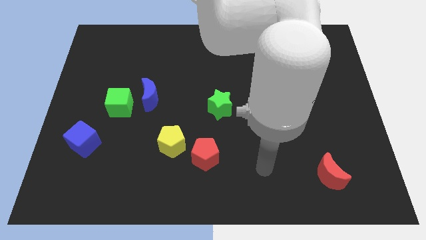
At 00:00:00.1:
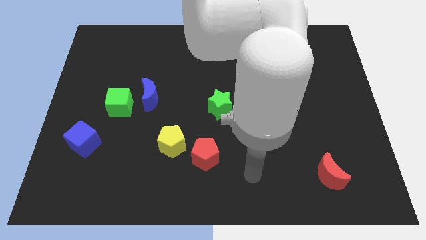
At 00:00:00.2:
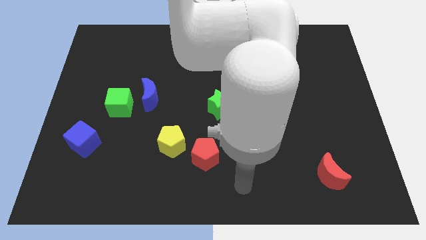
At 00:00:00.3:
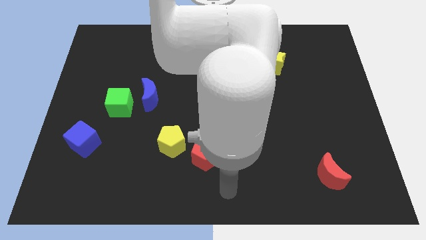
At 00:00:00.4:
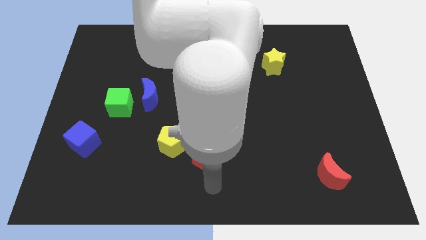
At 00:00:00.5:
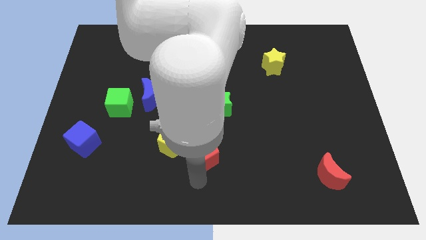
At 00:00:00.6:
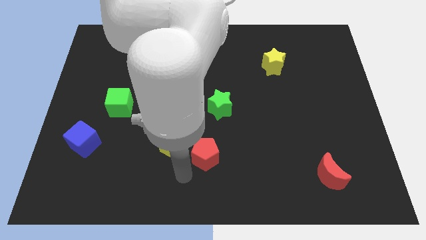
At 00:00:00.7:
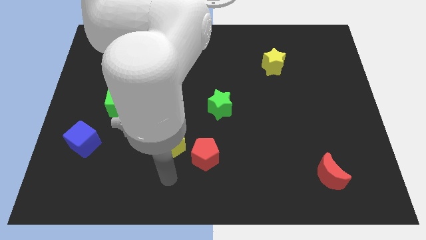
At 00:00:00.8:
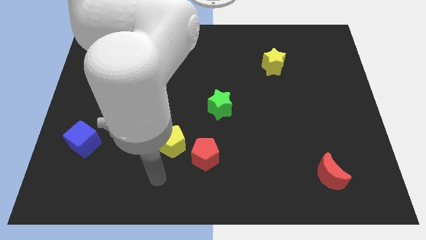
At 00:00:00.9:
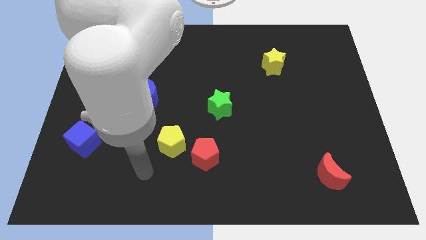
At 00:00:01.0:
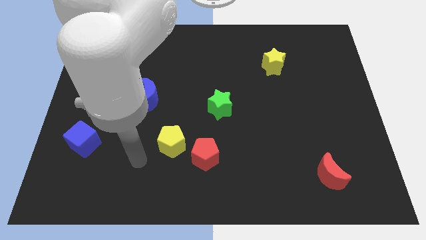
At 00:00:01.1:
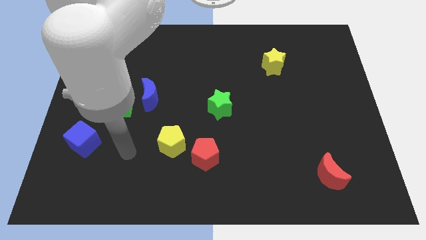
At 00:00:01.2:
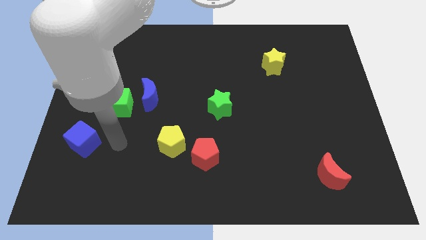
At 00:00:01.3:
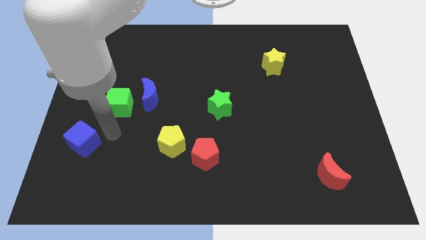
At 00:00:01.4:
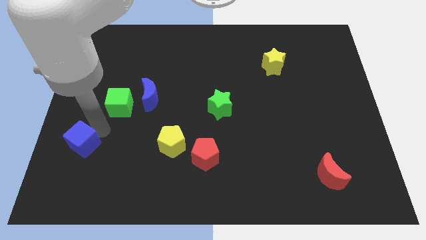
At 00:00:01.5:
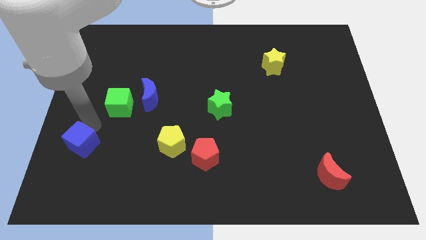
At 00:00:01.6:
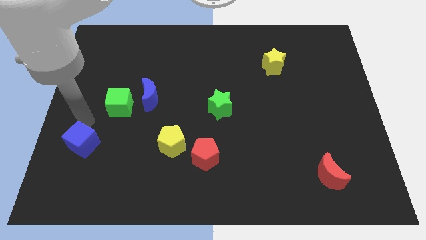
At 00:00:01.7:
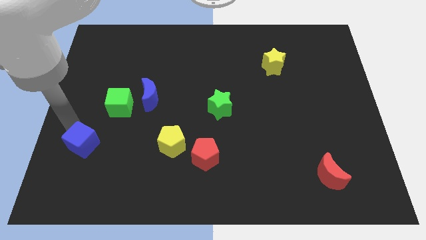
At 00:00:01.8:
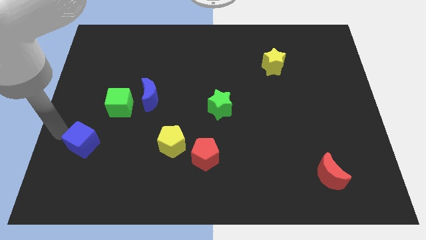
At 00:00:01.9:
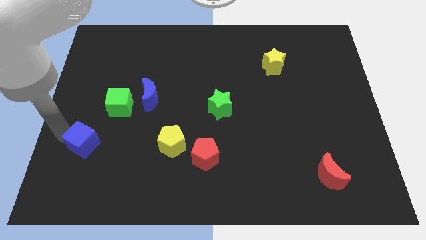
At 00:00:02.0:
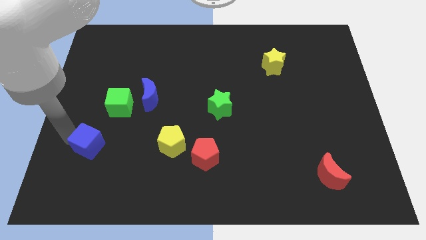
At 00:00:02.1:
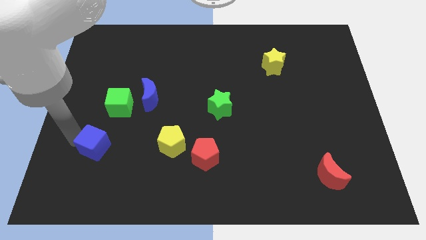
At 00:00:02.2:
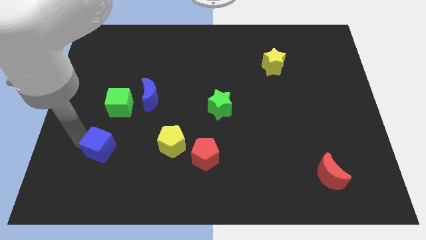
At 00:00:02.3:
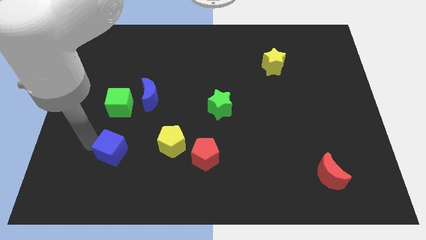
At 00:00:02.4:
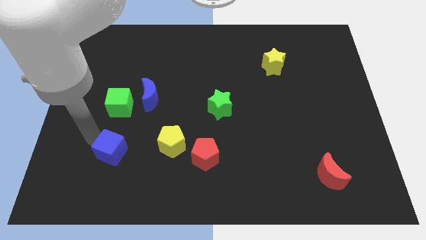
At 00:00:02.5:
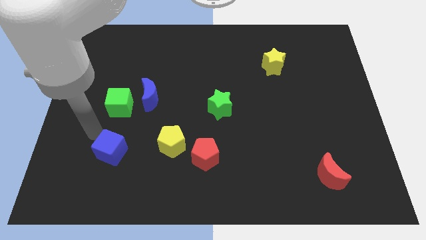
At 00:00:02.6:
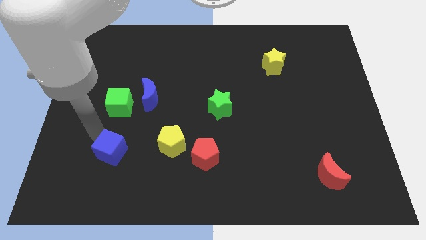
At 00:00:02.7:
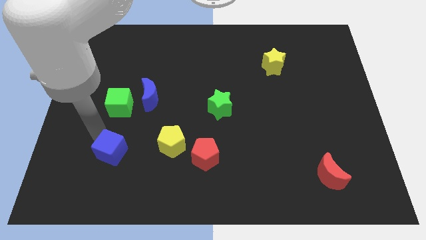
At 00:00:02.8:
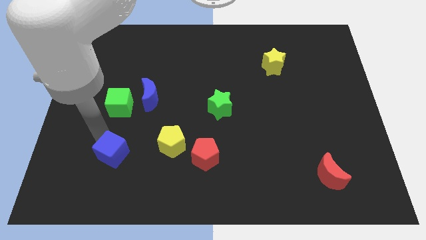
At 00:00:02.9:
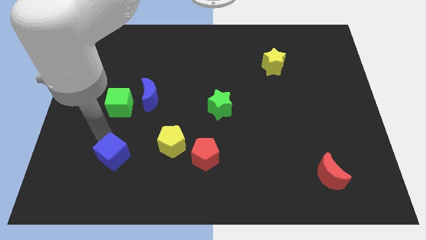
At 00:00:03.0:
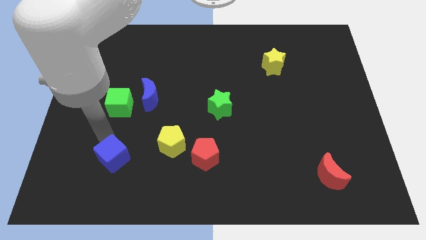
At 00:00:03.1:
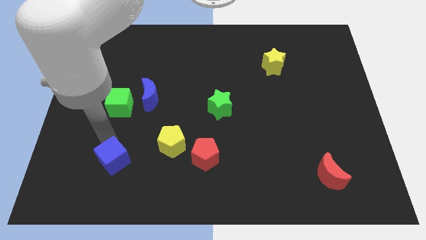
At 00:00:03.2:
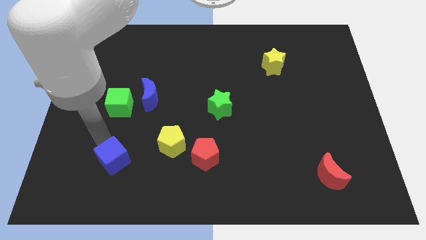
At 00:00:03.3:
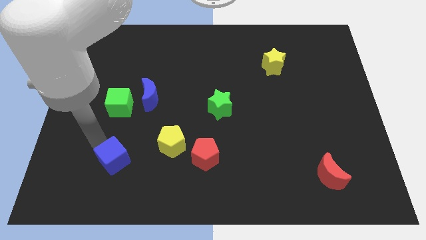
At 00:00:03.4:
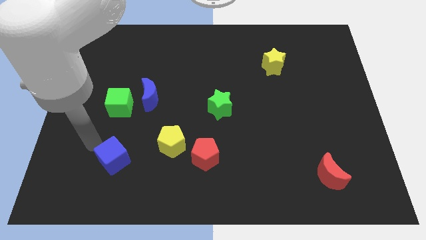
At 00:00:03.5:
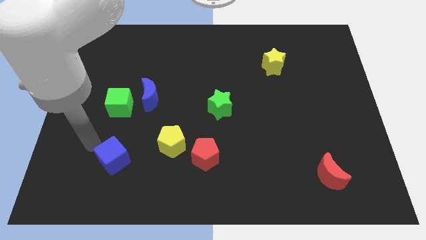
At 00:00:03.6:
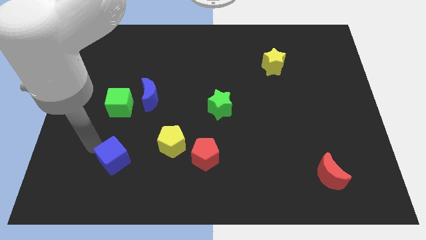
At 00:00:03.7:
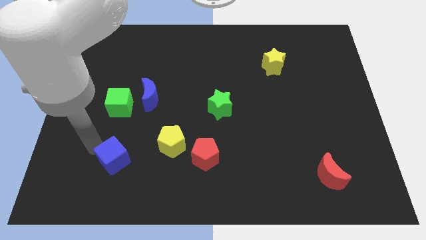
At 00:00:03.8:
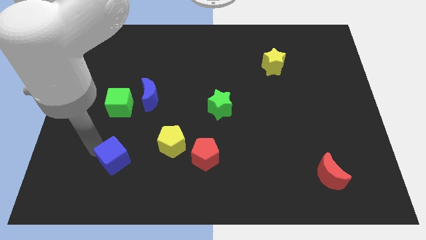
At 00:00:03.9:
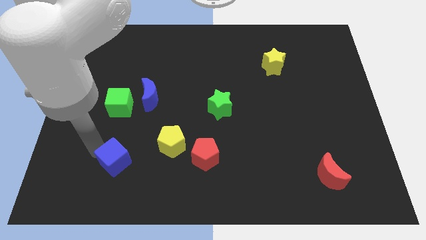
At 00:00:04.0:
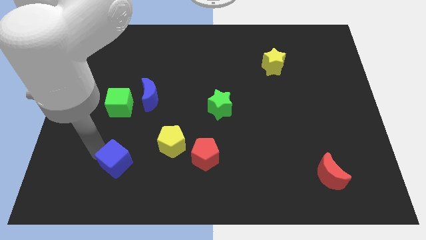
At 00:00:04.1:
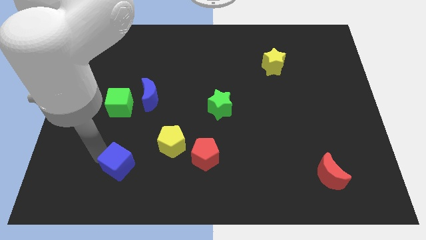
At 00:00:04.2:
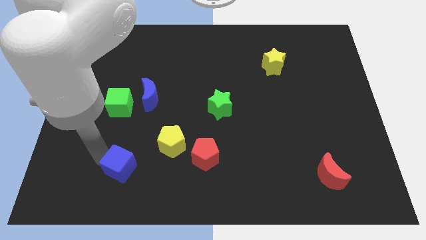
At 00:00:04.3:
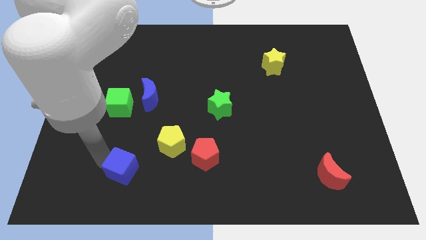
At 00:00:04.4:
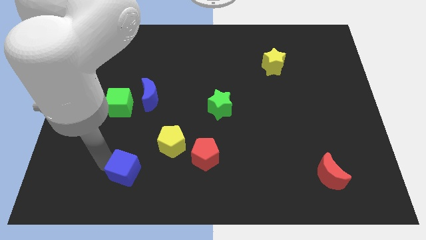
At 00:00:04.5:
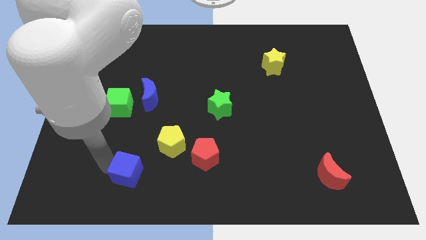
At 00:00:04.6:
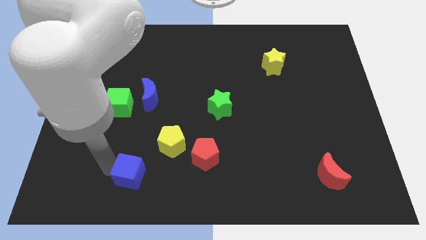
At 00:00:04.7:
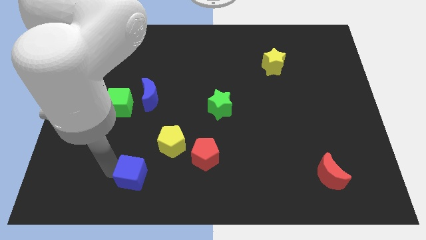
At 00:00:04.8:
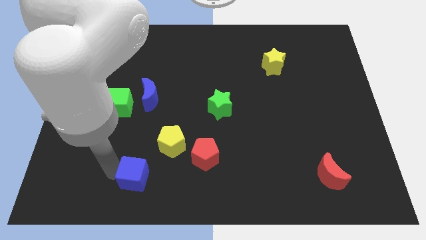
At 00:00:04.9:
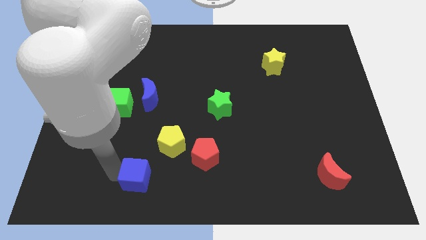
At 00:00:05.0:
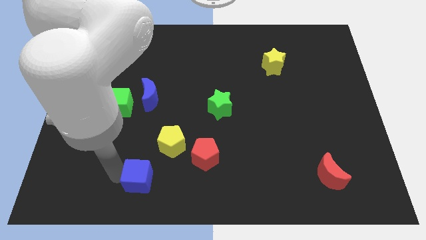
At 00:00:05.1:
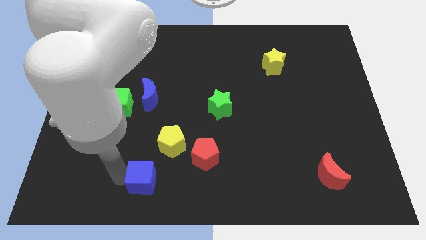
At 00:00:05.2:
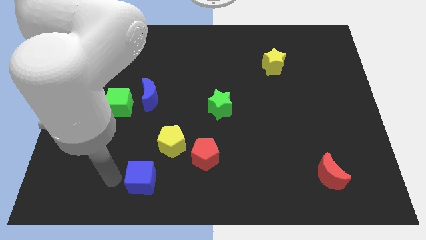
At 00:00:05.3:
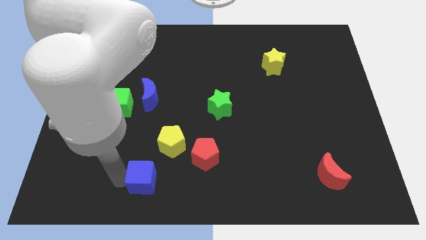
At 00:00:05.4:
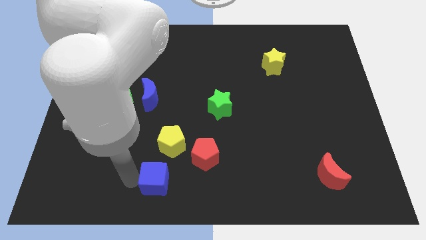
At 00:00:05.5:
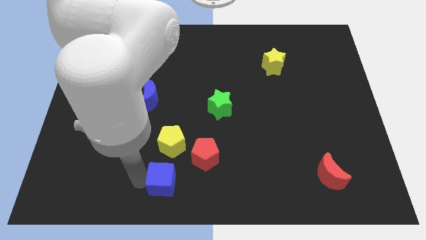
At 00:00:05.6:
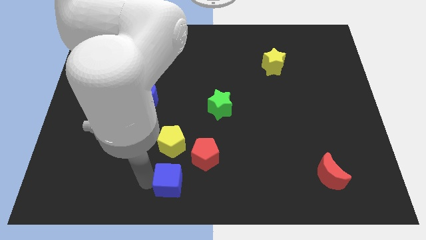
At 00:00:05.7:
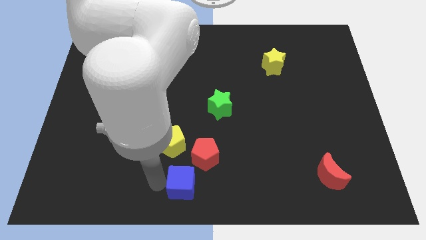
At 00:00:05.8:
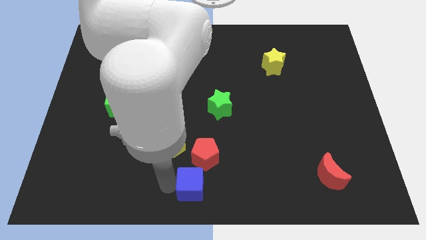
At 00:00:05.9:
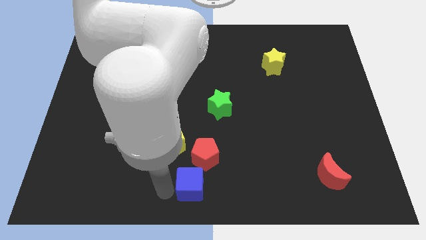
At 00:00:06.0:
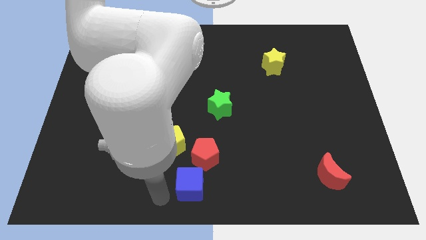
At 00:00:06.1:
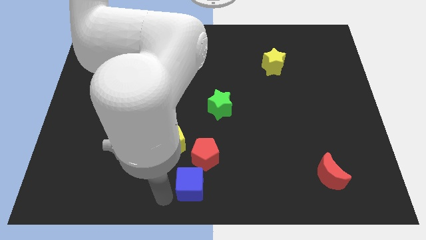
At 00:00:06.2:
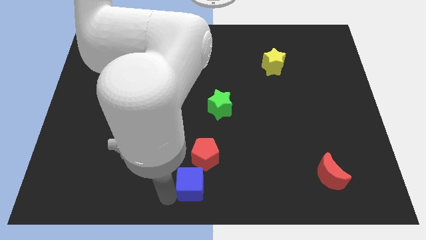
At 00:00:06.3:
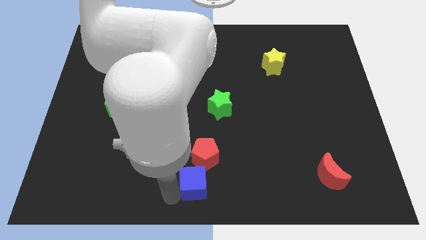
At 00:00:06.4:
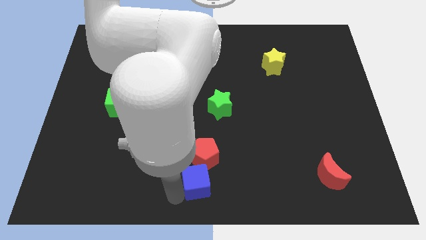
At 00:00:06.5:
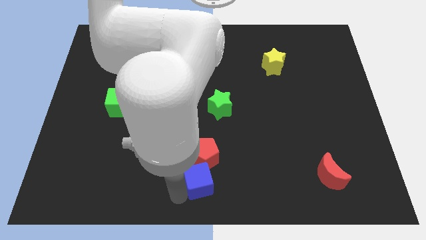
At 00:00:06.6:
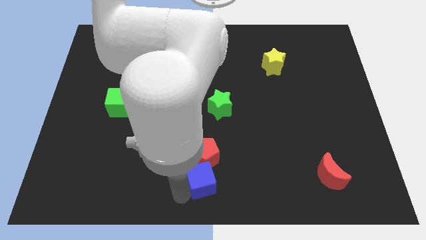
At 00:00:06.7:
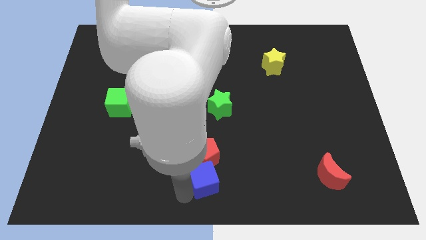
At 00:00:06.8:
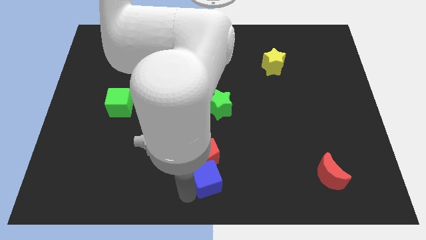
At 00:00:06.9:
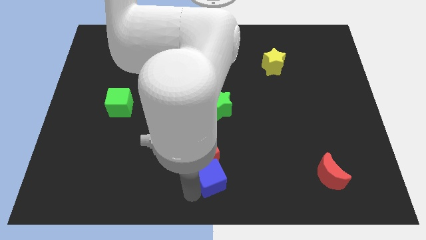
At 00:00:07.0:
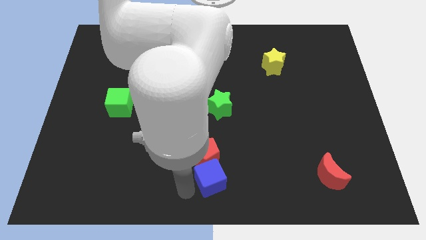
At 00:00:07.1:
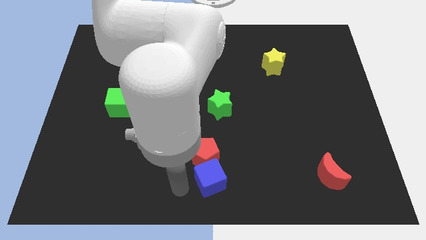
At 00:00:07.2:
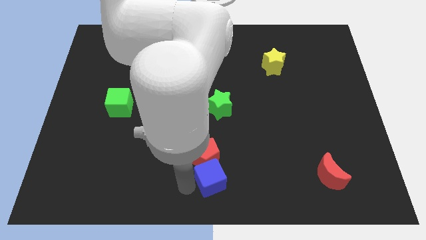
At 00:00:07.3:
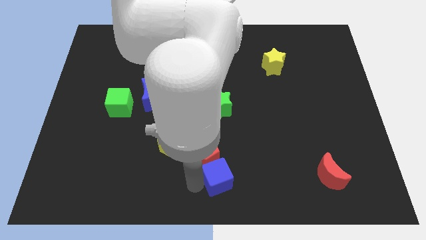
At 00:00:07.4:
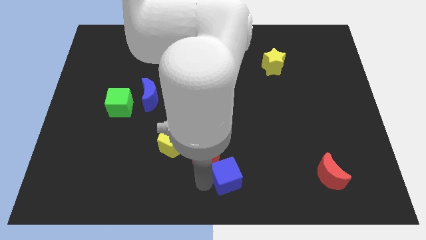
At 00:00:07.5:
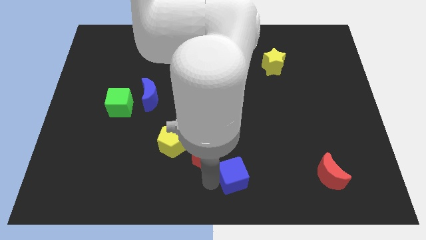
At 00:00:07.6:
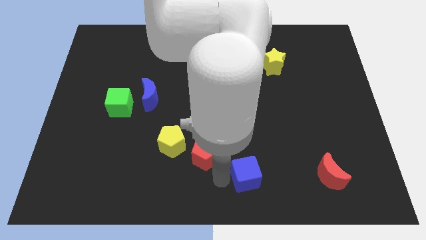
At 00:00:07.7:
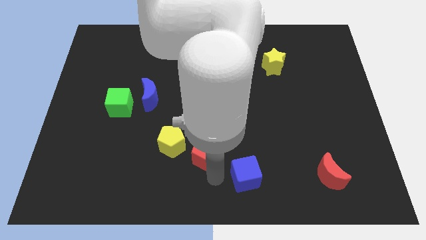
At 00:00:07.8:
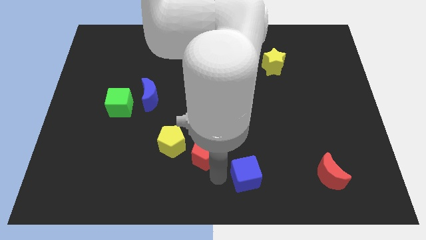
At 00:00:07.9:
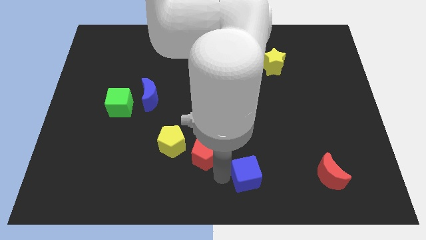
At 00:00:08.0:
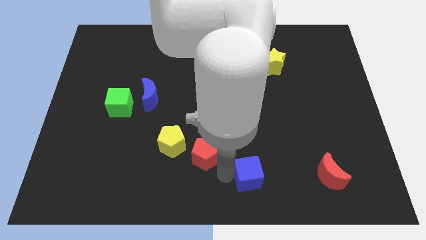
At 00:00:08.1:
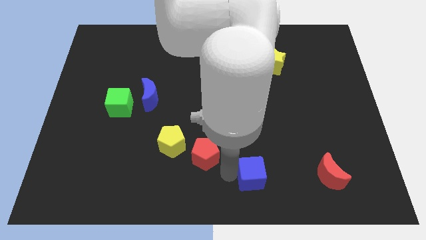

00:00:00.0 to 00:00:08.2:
move the blue cube to the left of the red moon
